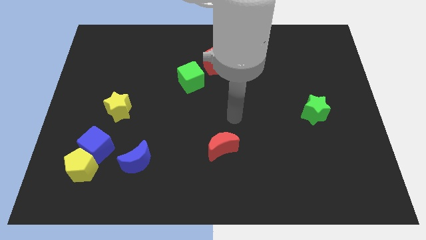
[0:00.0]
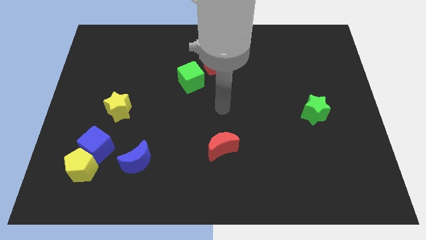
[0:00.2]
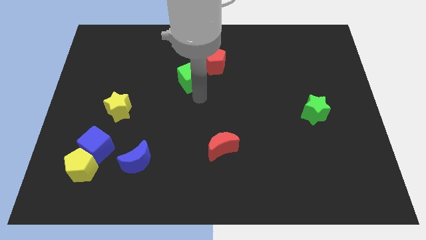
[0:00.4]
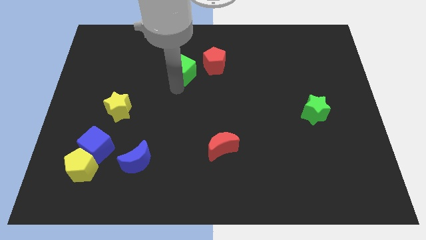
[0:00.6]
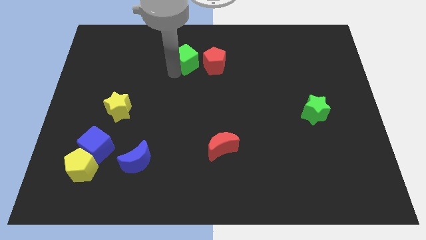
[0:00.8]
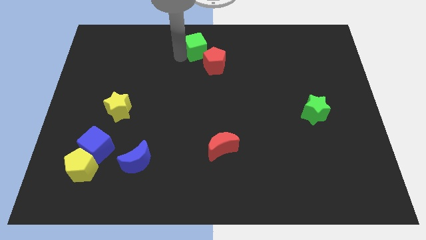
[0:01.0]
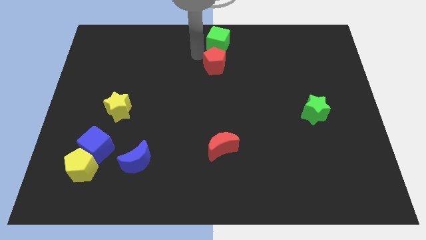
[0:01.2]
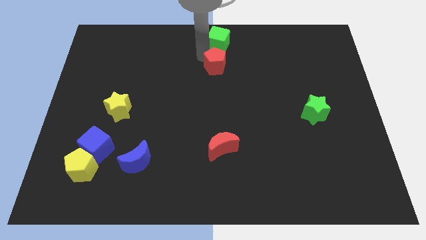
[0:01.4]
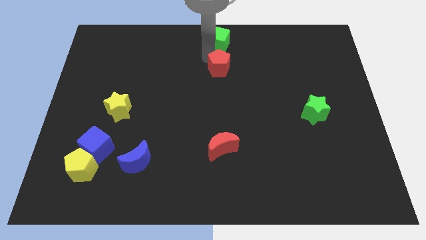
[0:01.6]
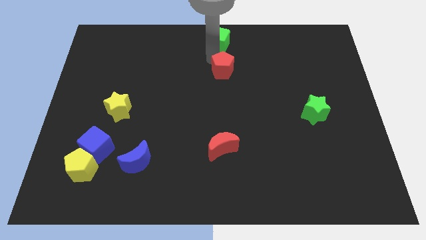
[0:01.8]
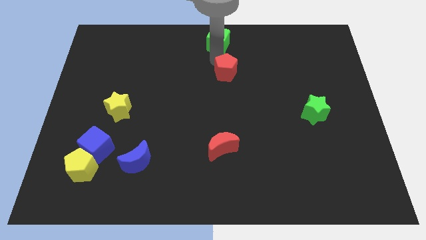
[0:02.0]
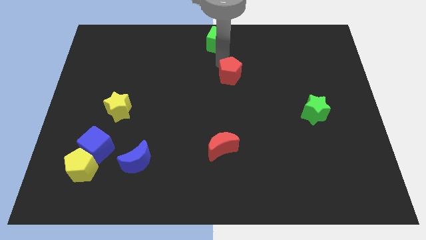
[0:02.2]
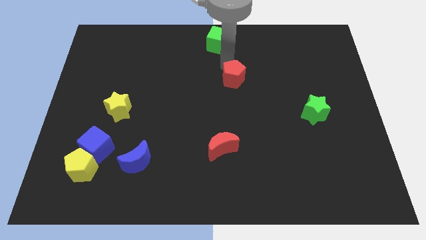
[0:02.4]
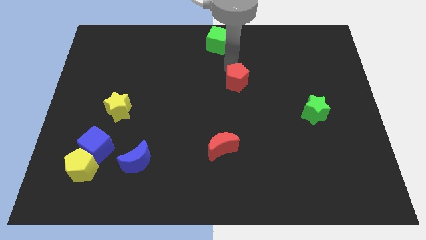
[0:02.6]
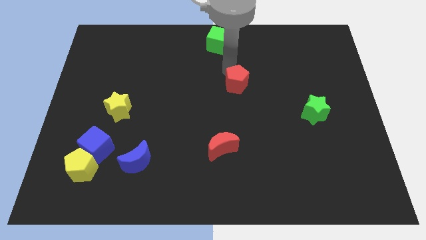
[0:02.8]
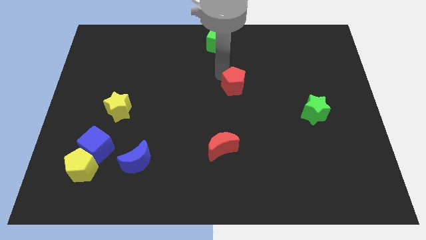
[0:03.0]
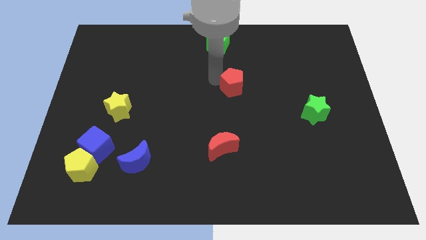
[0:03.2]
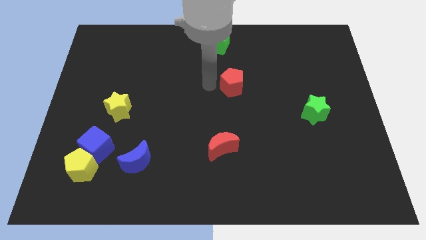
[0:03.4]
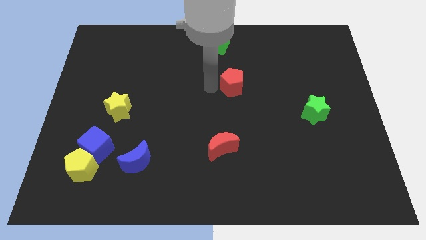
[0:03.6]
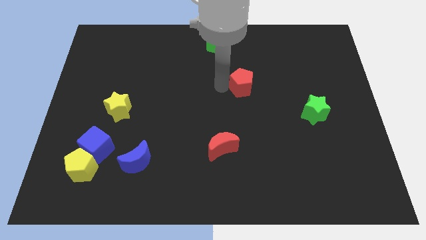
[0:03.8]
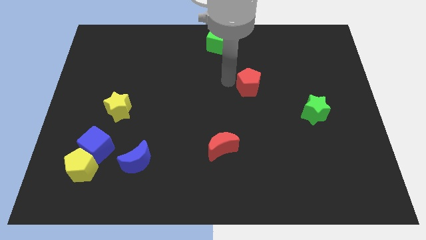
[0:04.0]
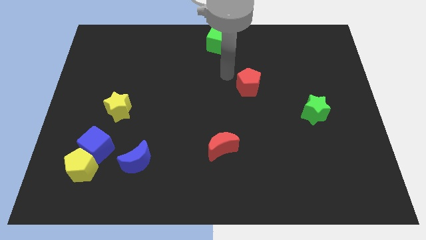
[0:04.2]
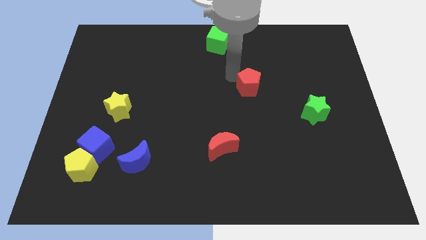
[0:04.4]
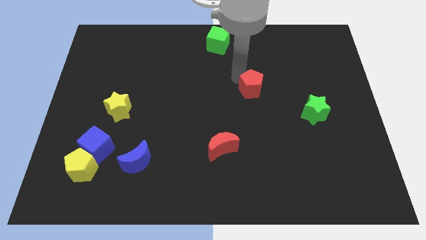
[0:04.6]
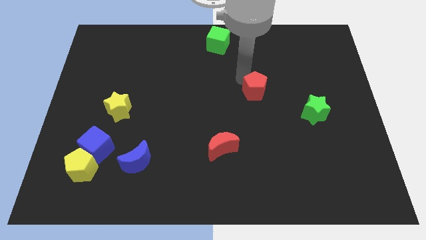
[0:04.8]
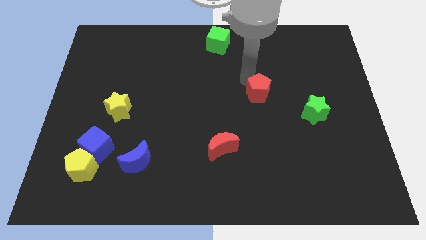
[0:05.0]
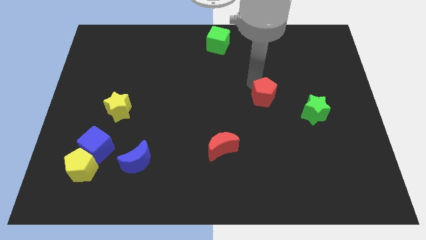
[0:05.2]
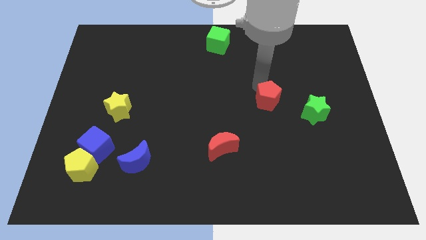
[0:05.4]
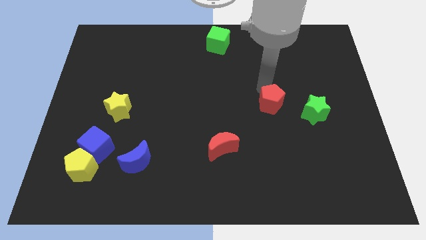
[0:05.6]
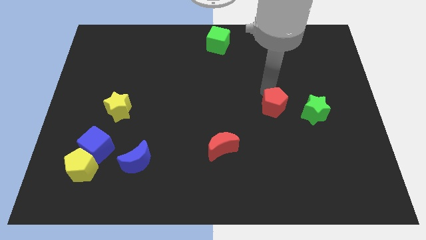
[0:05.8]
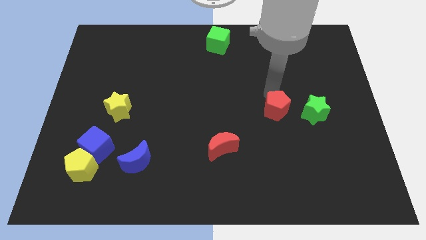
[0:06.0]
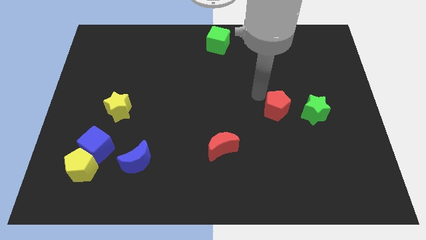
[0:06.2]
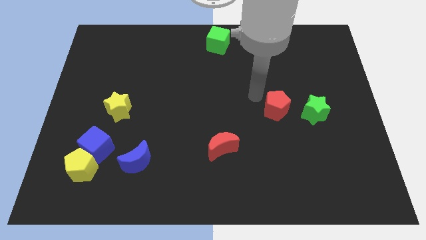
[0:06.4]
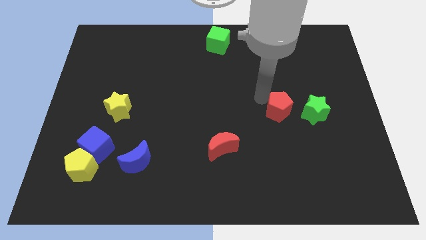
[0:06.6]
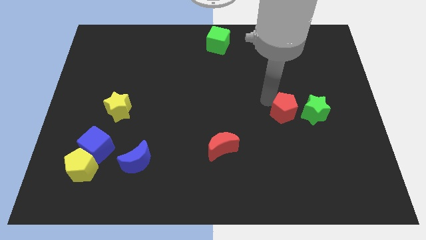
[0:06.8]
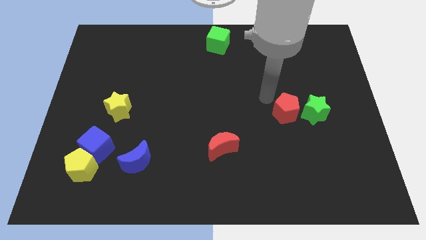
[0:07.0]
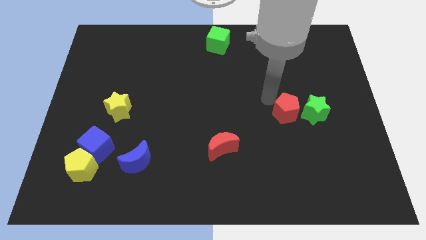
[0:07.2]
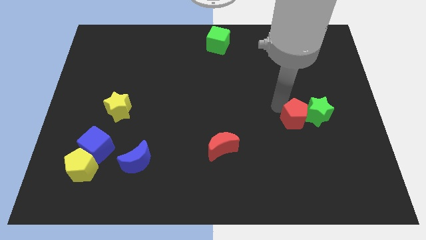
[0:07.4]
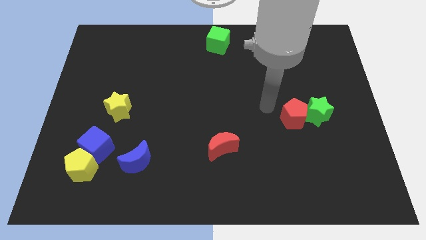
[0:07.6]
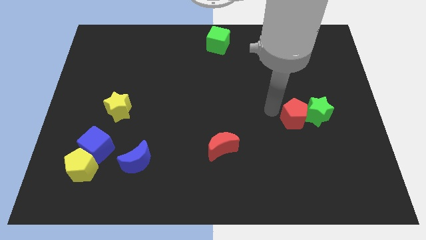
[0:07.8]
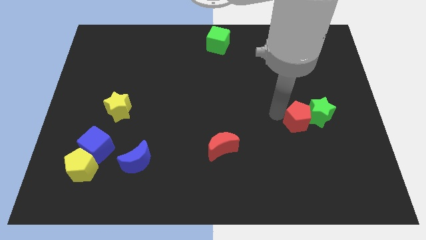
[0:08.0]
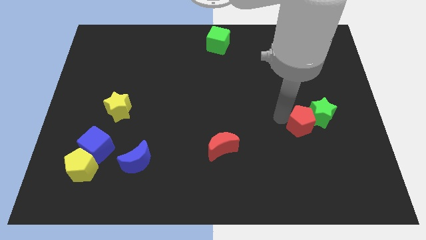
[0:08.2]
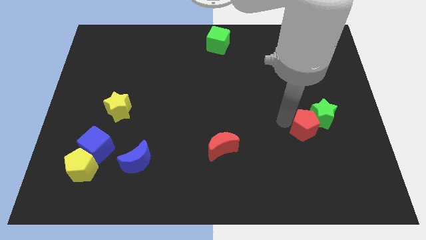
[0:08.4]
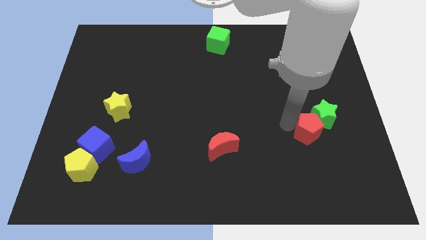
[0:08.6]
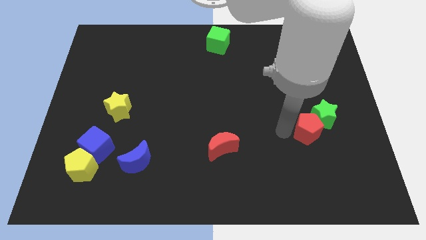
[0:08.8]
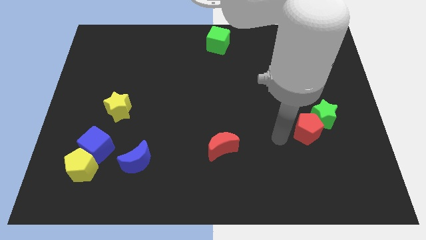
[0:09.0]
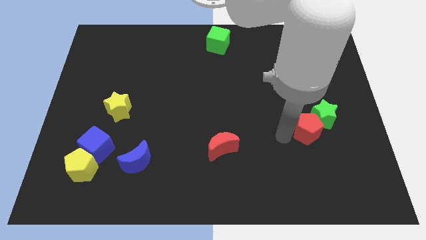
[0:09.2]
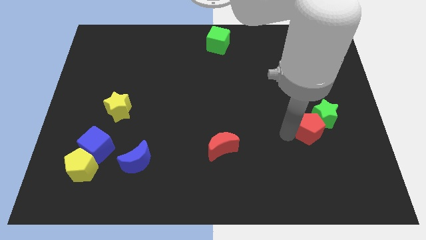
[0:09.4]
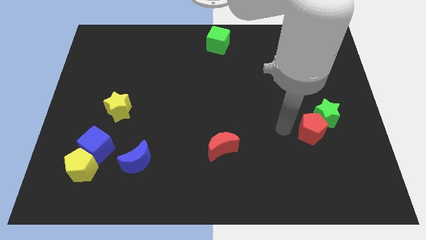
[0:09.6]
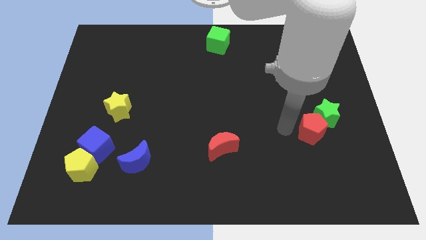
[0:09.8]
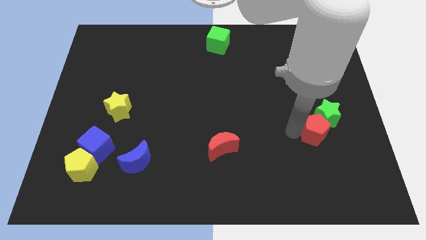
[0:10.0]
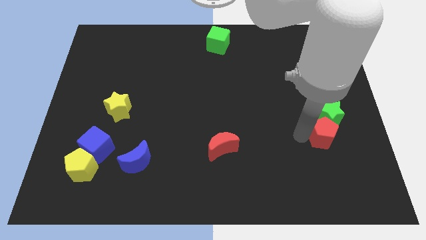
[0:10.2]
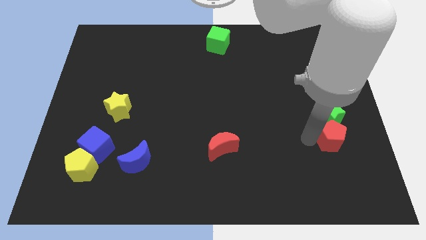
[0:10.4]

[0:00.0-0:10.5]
slide the red pentagon to the bottom right of the green star

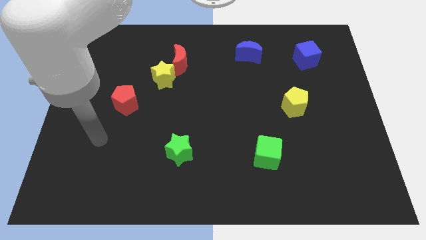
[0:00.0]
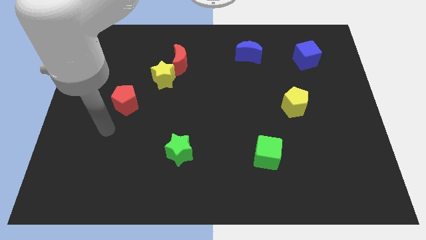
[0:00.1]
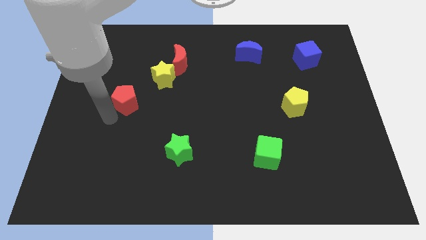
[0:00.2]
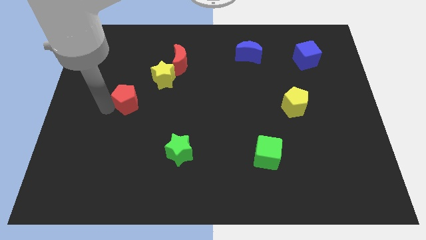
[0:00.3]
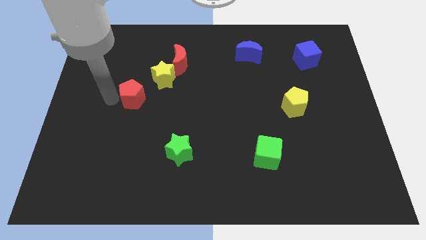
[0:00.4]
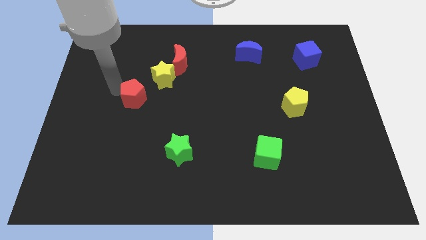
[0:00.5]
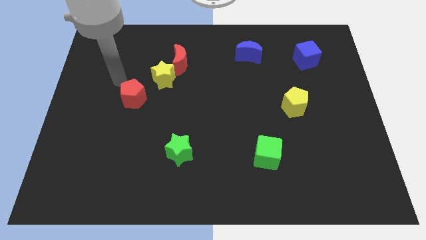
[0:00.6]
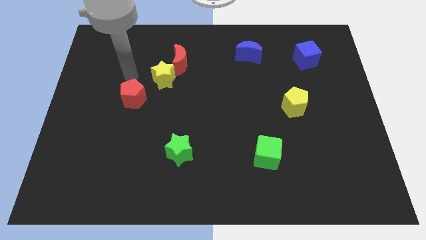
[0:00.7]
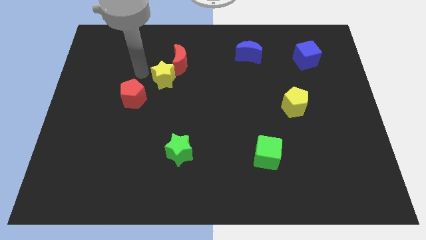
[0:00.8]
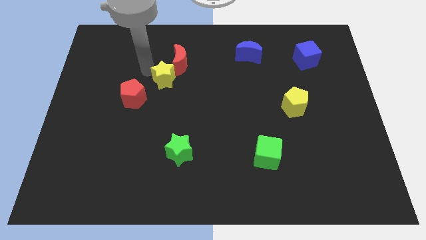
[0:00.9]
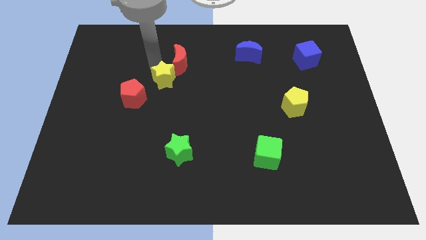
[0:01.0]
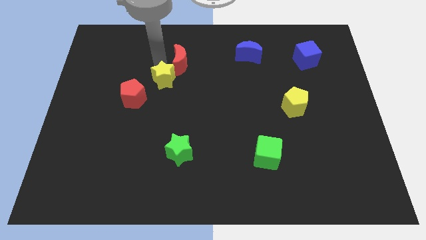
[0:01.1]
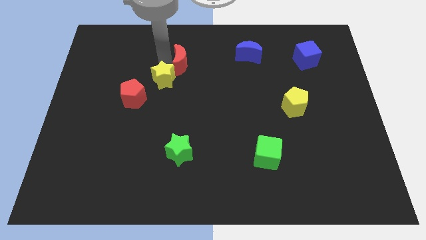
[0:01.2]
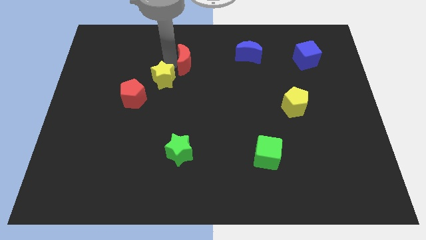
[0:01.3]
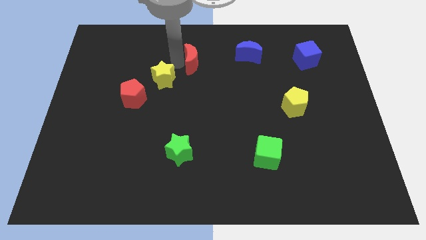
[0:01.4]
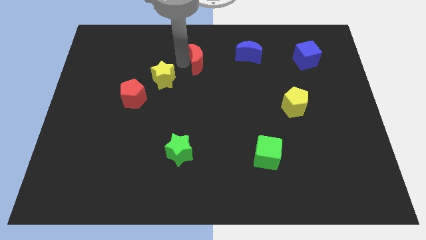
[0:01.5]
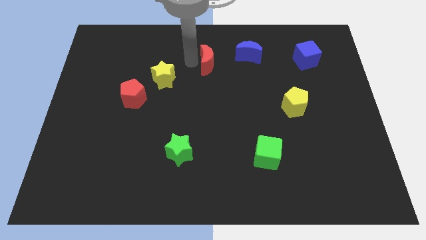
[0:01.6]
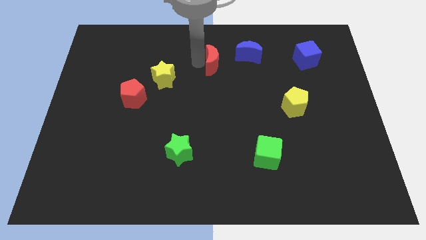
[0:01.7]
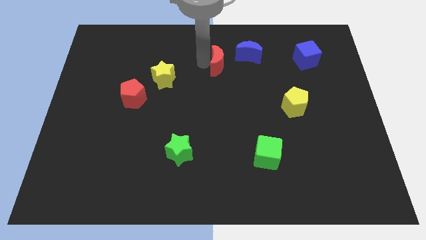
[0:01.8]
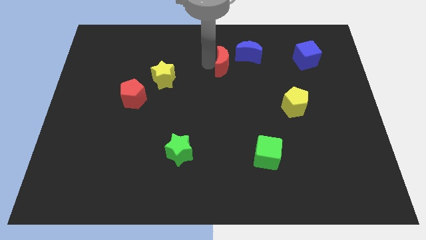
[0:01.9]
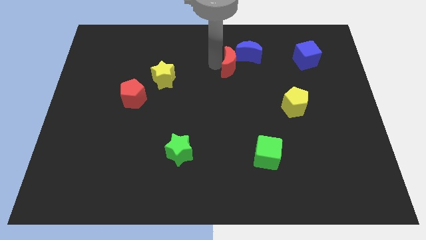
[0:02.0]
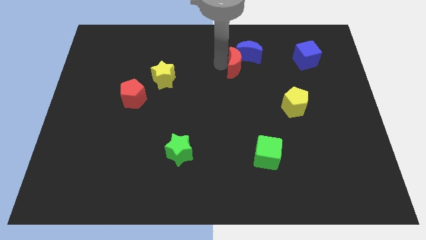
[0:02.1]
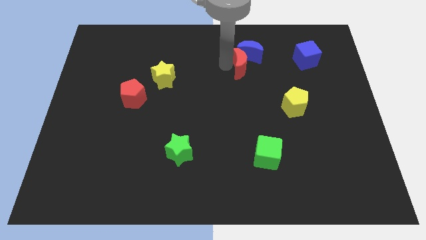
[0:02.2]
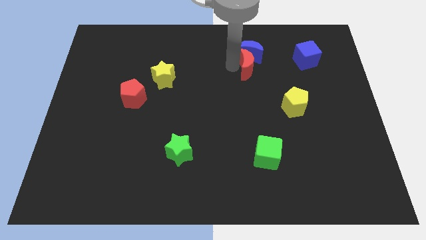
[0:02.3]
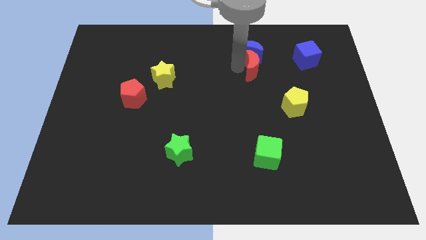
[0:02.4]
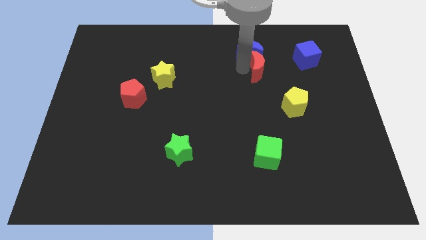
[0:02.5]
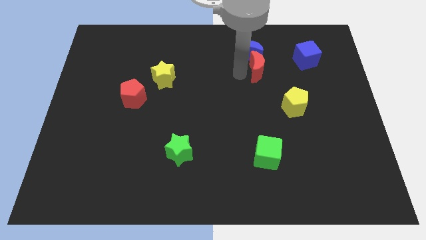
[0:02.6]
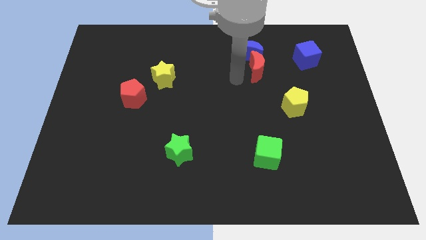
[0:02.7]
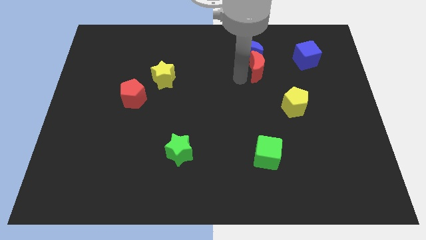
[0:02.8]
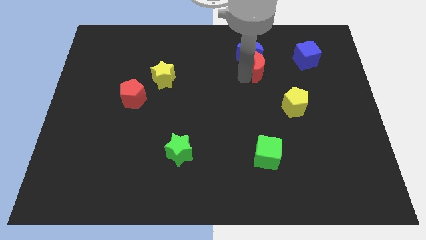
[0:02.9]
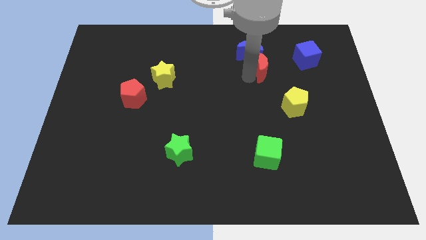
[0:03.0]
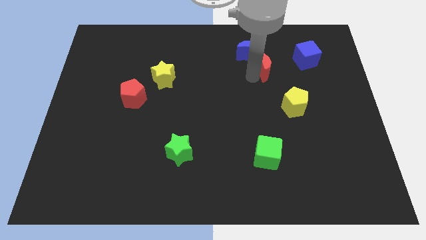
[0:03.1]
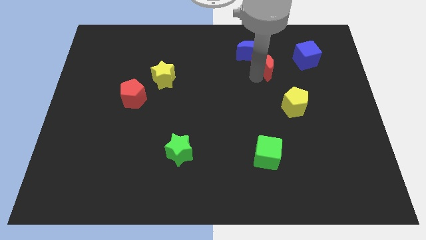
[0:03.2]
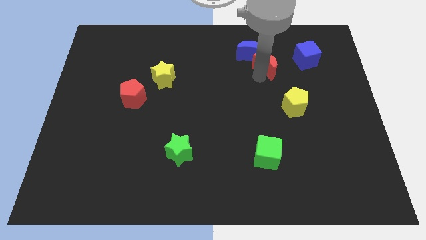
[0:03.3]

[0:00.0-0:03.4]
slide the red moon to the right of the blue moon
